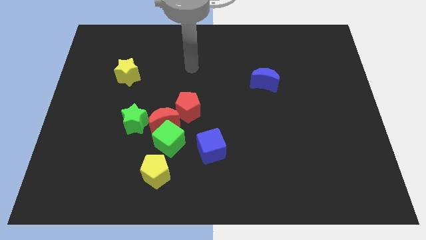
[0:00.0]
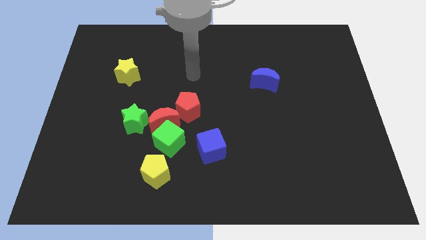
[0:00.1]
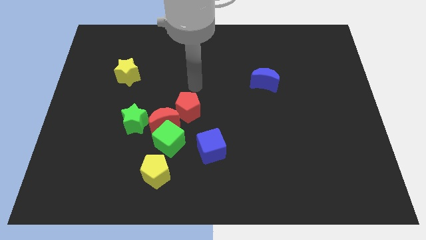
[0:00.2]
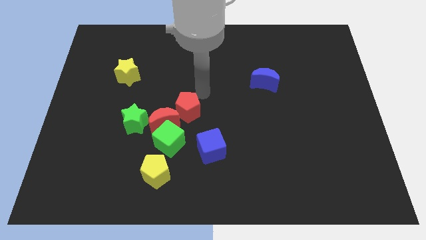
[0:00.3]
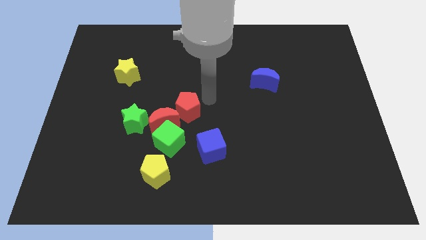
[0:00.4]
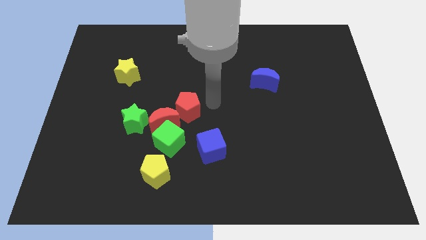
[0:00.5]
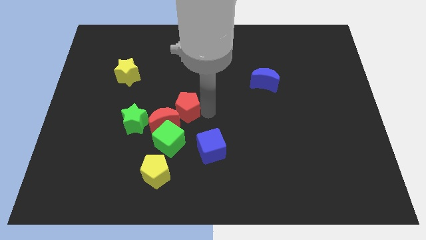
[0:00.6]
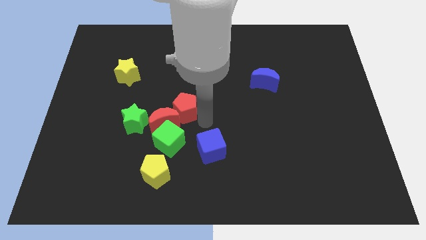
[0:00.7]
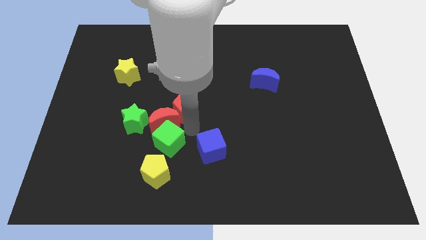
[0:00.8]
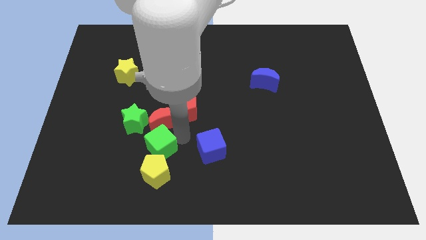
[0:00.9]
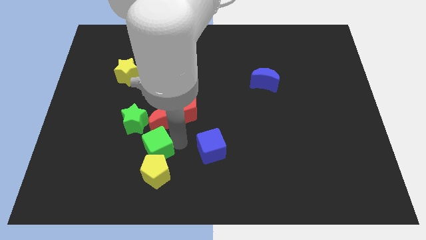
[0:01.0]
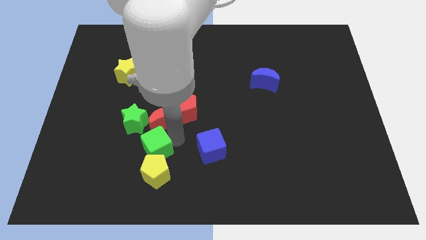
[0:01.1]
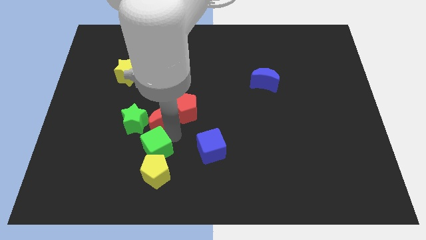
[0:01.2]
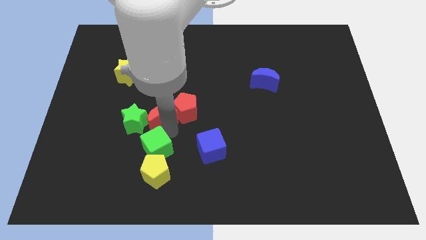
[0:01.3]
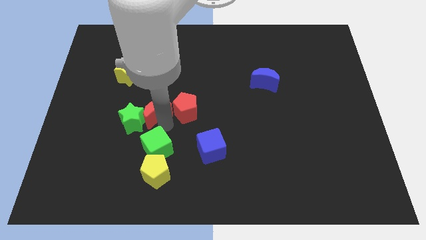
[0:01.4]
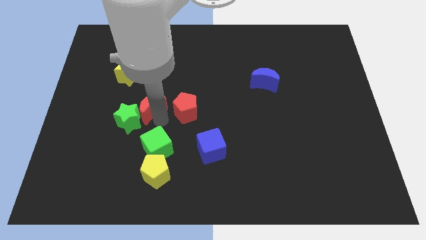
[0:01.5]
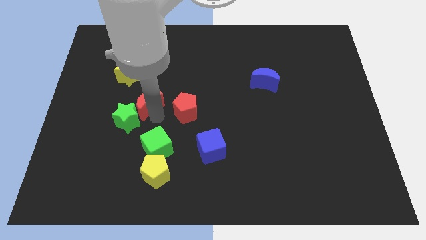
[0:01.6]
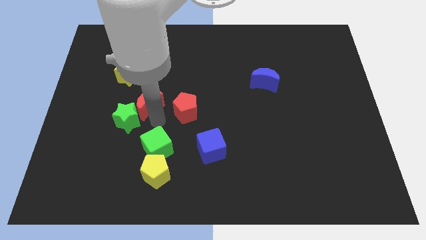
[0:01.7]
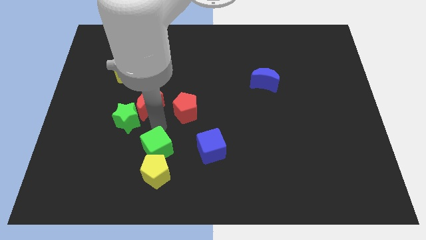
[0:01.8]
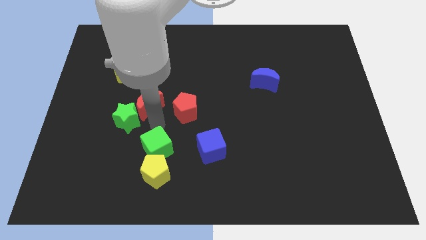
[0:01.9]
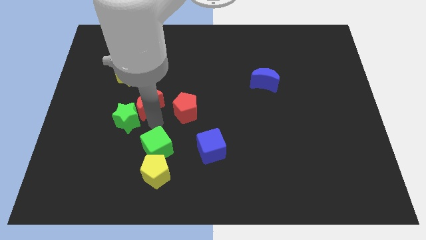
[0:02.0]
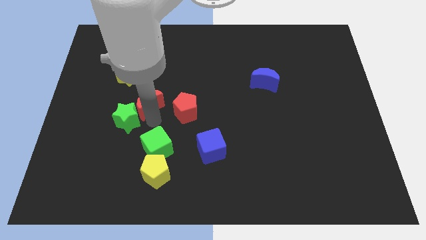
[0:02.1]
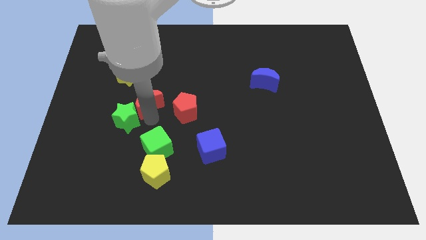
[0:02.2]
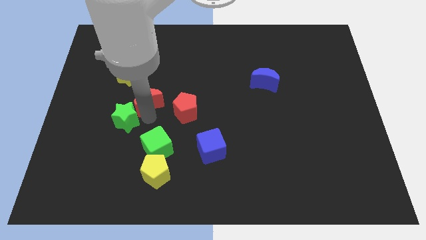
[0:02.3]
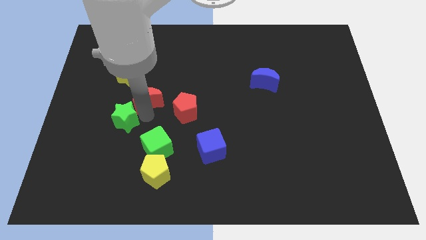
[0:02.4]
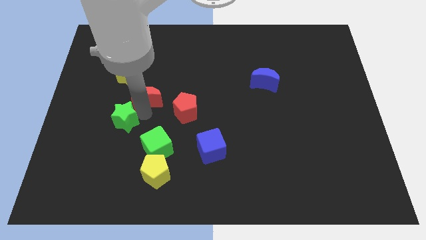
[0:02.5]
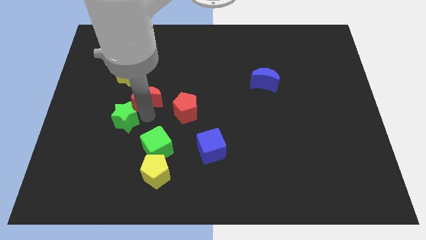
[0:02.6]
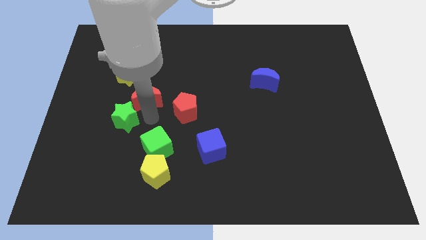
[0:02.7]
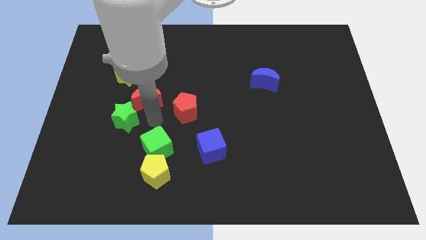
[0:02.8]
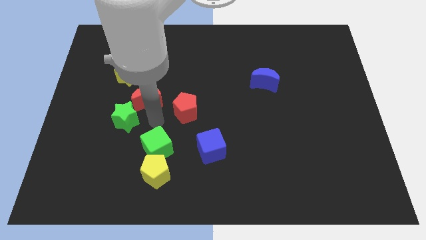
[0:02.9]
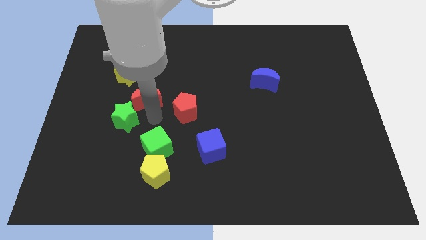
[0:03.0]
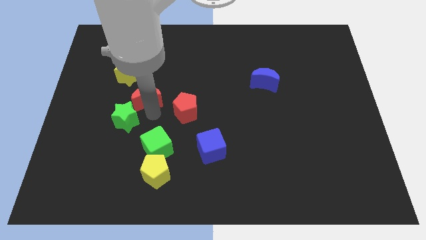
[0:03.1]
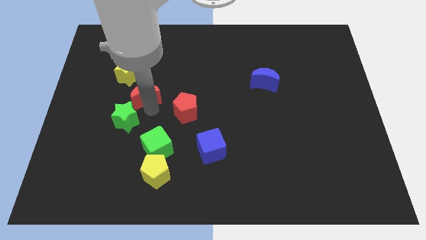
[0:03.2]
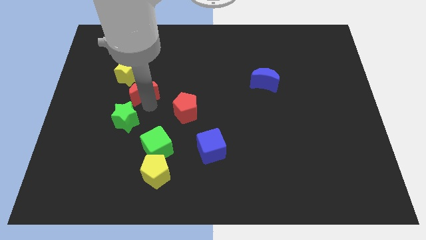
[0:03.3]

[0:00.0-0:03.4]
separate the red moon from the green cube, green star, and red pentagon

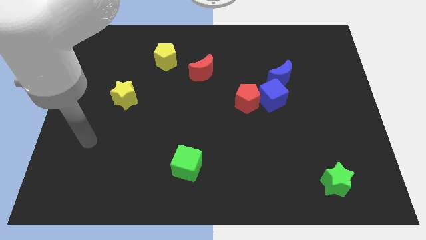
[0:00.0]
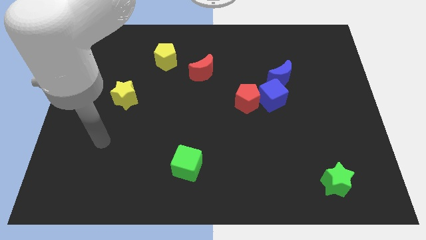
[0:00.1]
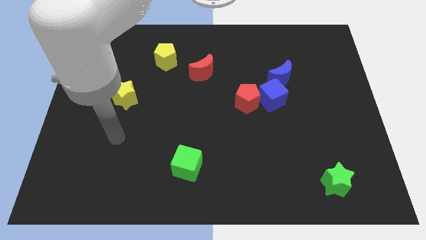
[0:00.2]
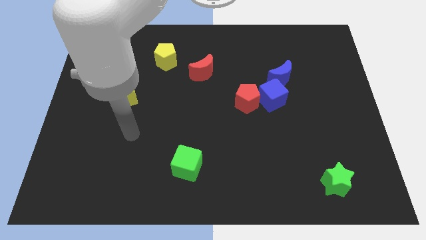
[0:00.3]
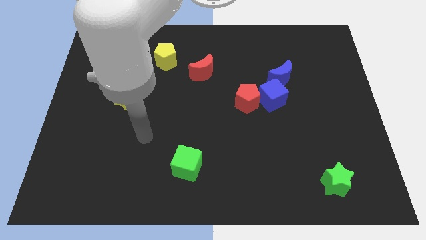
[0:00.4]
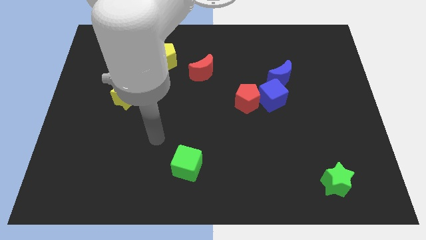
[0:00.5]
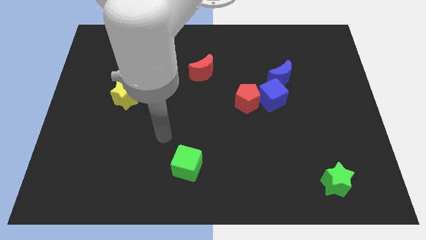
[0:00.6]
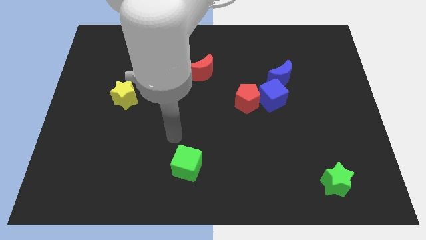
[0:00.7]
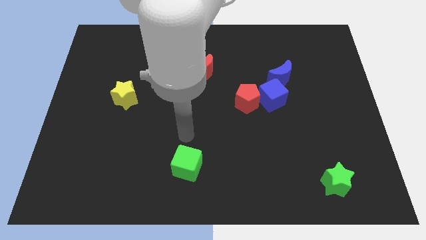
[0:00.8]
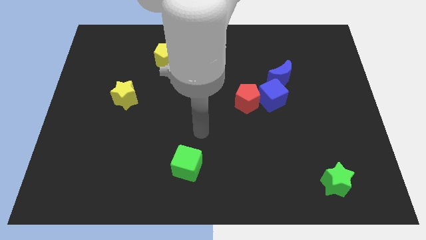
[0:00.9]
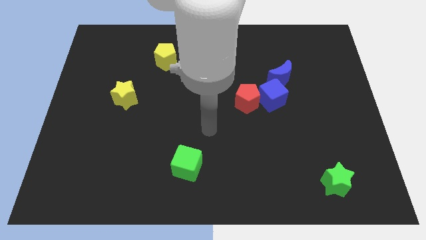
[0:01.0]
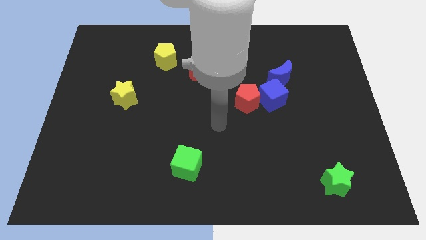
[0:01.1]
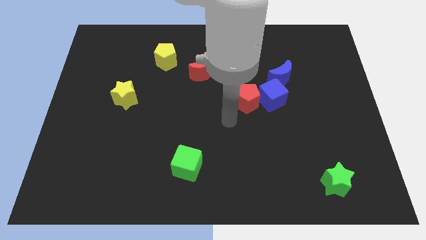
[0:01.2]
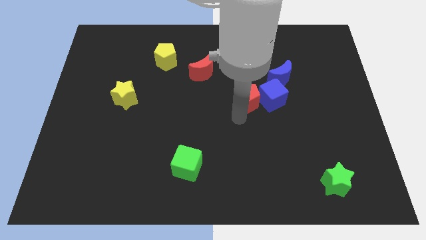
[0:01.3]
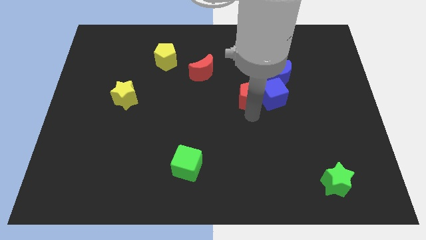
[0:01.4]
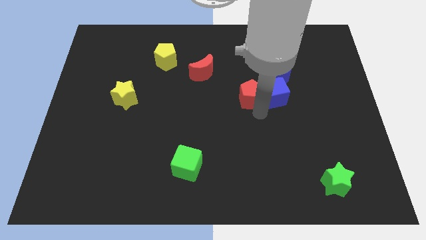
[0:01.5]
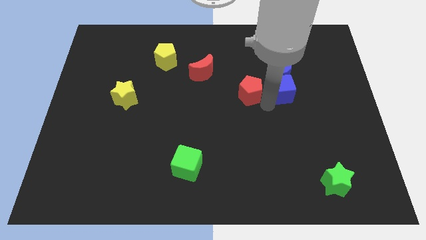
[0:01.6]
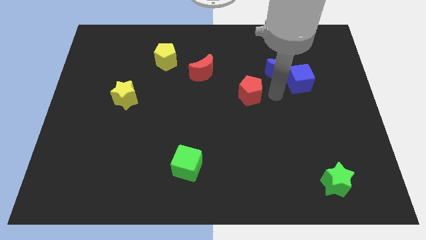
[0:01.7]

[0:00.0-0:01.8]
pull the red pentagon apart from the blue cube

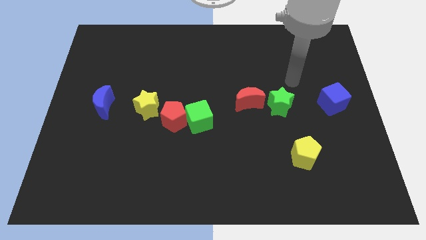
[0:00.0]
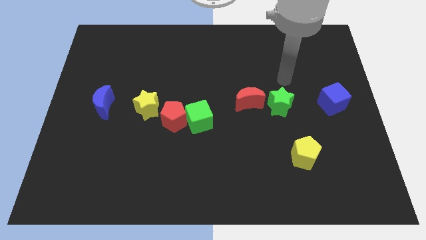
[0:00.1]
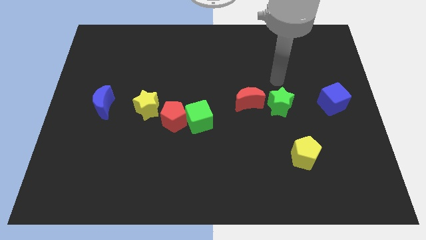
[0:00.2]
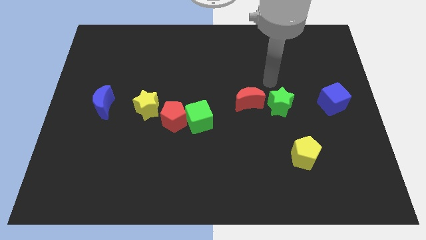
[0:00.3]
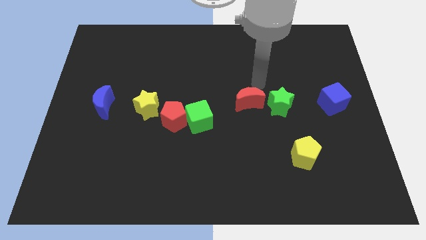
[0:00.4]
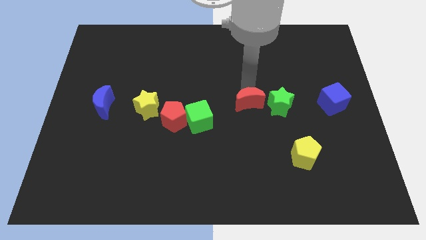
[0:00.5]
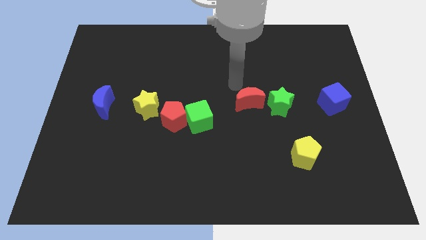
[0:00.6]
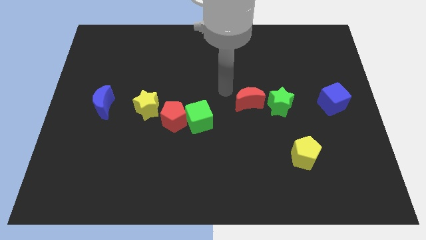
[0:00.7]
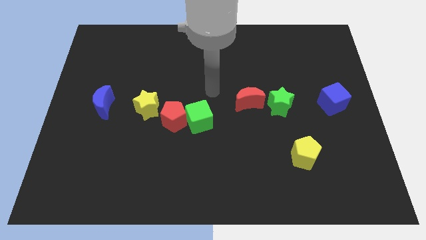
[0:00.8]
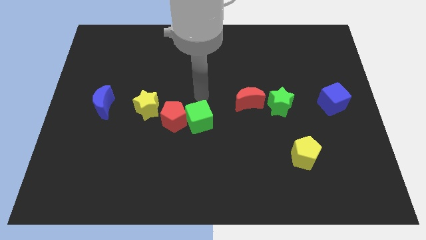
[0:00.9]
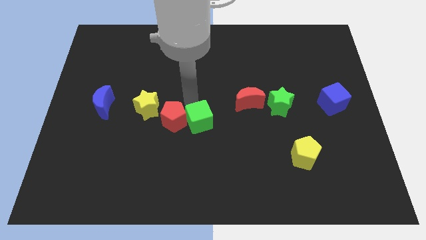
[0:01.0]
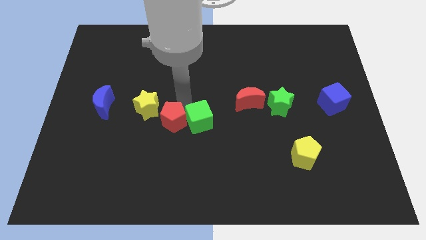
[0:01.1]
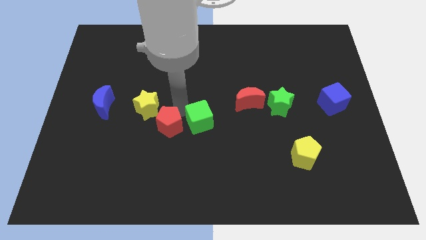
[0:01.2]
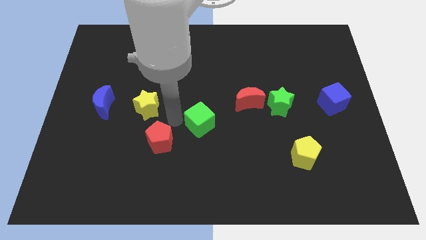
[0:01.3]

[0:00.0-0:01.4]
move the green cube away from the red pentagon

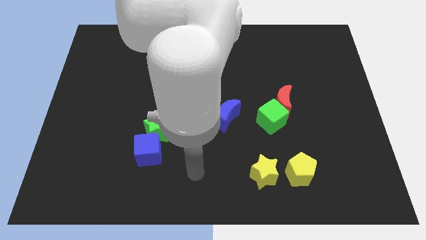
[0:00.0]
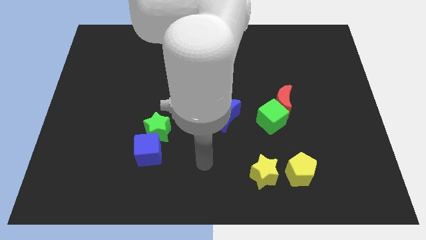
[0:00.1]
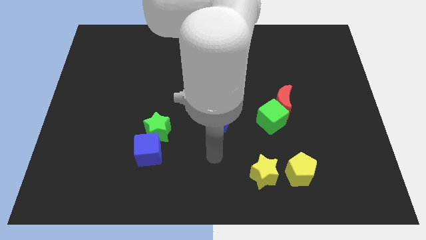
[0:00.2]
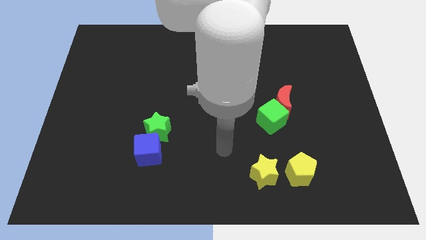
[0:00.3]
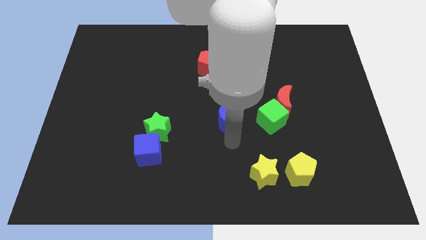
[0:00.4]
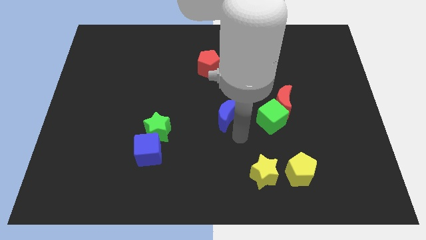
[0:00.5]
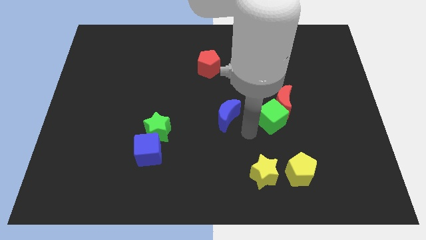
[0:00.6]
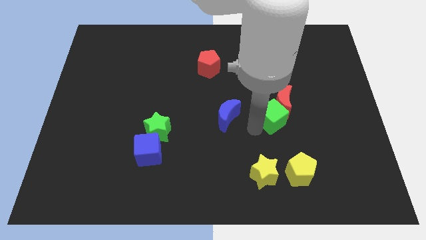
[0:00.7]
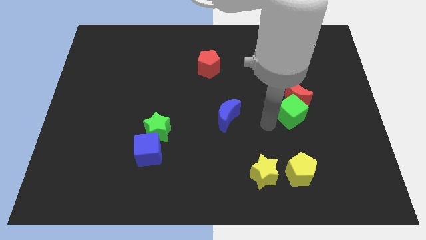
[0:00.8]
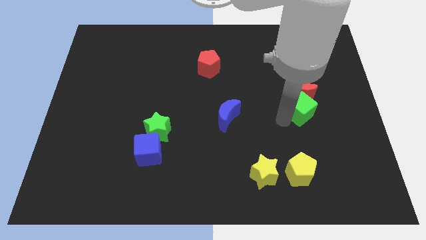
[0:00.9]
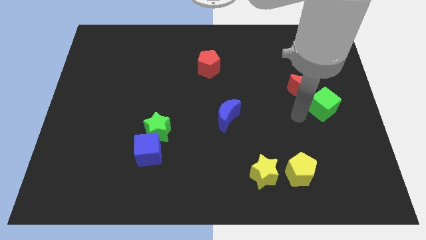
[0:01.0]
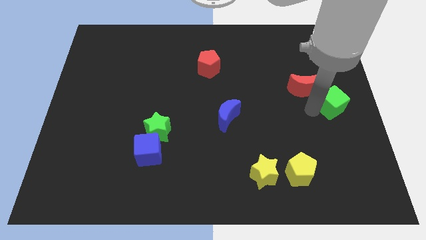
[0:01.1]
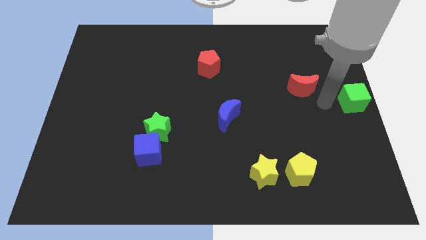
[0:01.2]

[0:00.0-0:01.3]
separate the red moon from the green cube

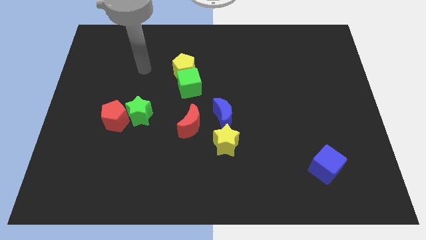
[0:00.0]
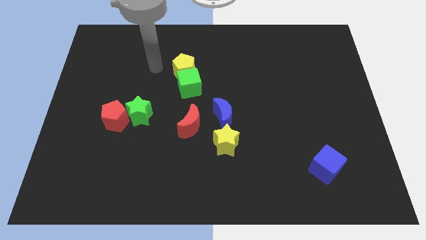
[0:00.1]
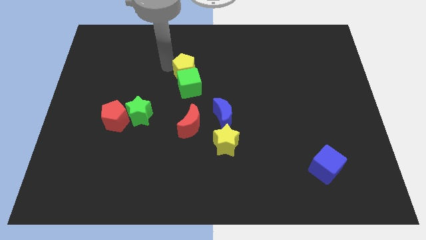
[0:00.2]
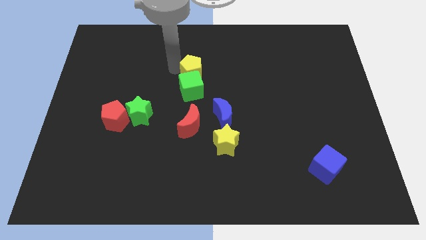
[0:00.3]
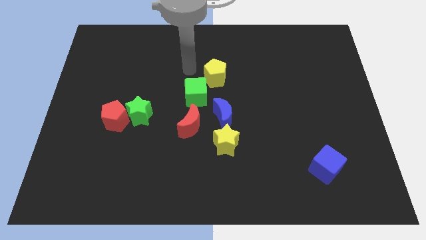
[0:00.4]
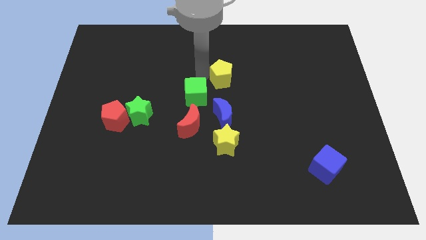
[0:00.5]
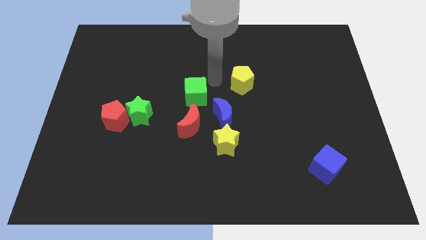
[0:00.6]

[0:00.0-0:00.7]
pull the green cube apart from the yellow pentagon

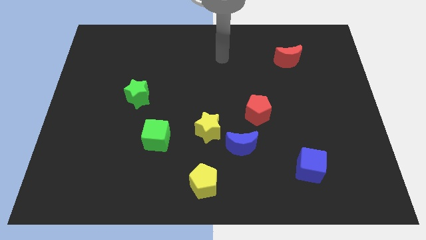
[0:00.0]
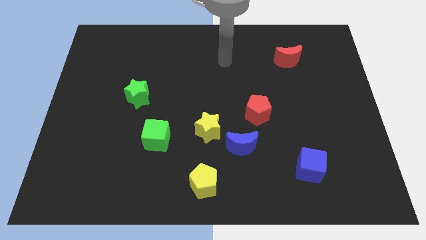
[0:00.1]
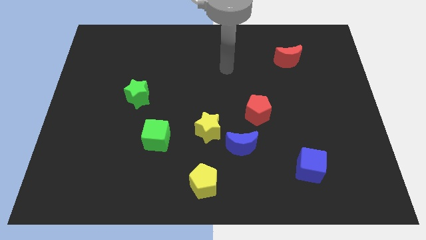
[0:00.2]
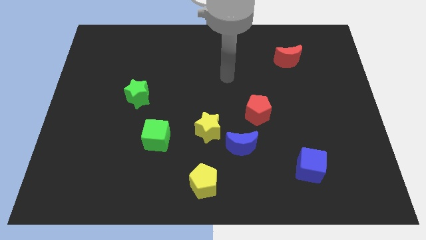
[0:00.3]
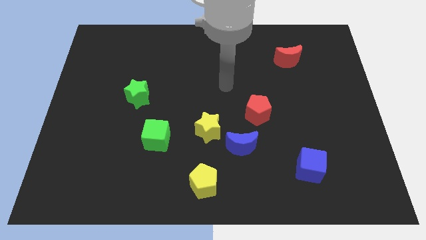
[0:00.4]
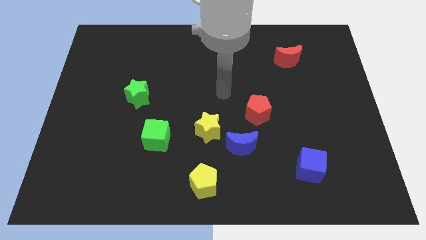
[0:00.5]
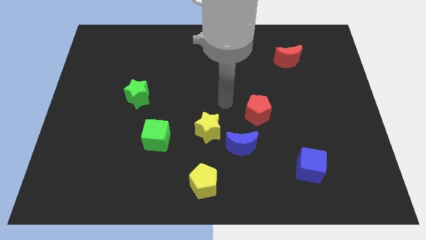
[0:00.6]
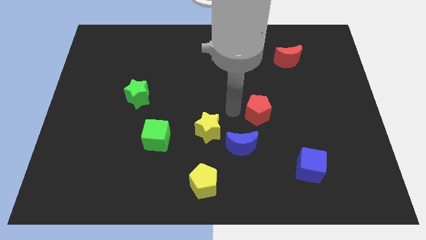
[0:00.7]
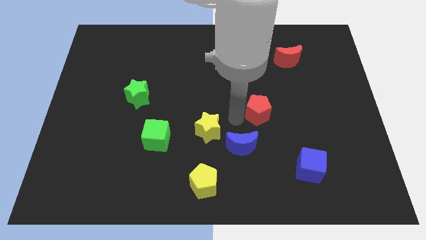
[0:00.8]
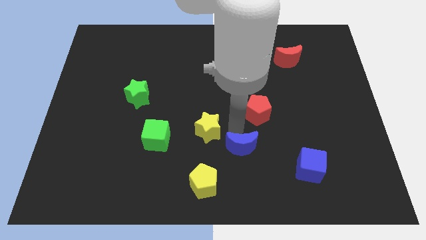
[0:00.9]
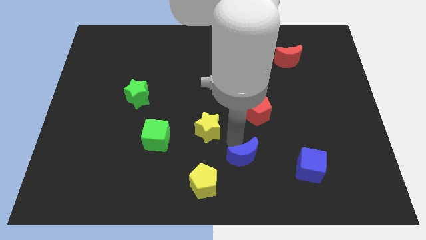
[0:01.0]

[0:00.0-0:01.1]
move the yellow star away from the blue moon
